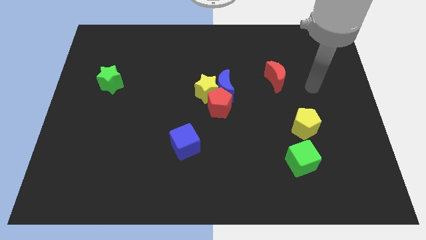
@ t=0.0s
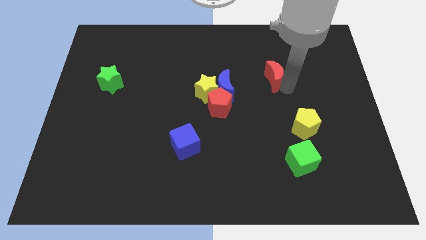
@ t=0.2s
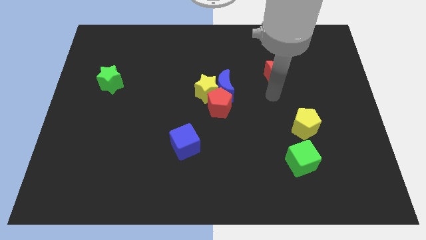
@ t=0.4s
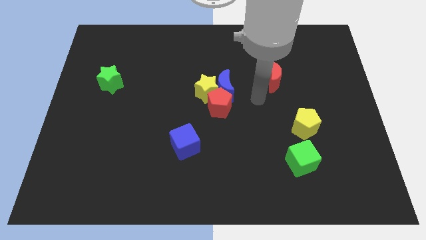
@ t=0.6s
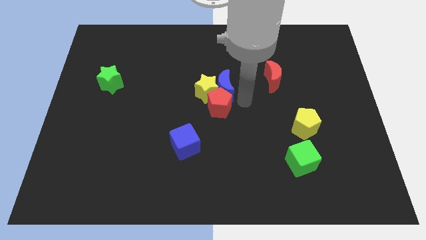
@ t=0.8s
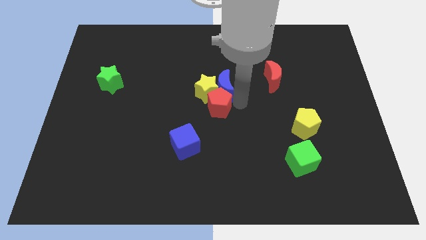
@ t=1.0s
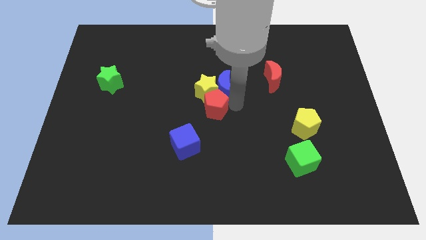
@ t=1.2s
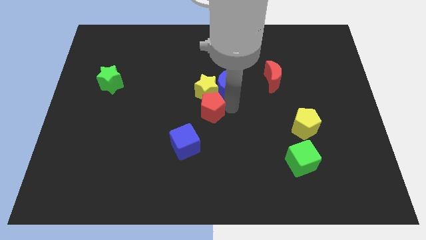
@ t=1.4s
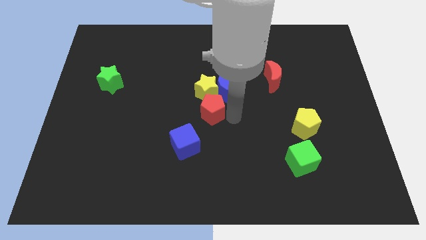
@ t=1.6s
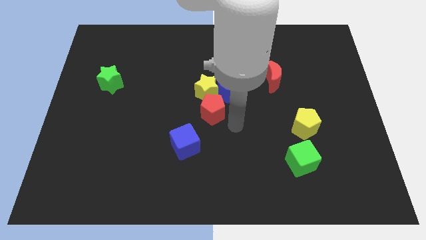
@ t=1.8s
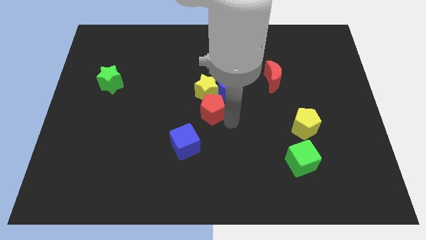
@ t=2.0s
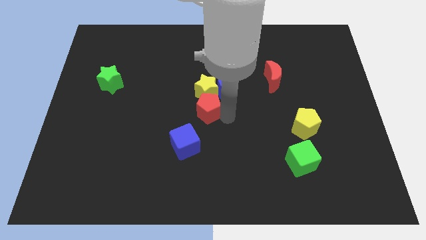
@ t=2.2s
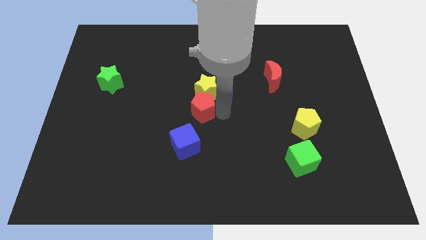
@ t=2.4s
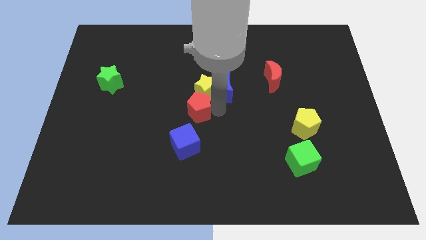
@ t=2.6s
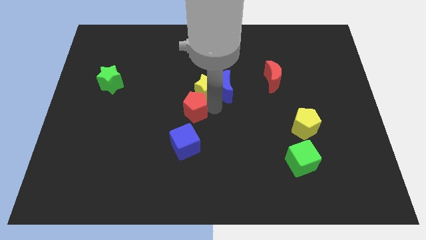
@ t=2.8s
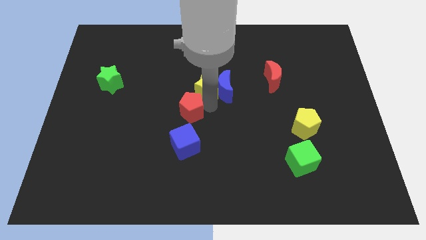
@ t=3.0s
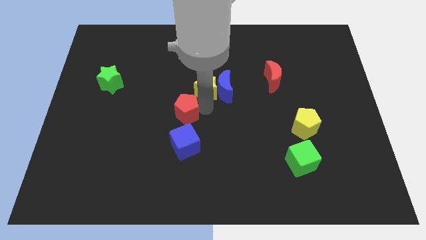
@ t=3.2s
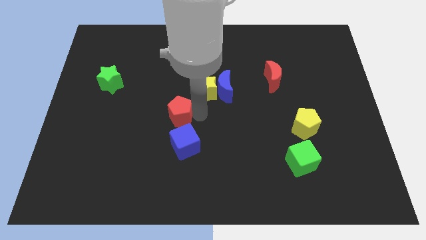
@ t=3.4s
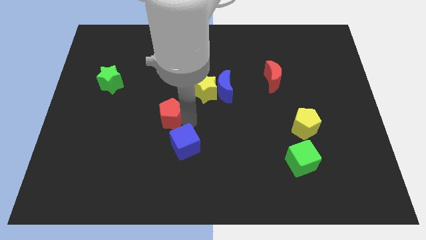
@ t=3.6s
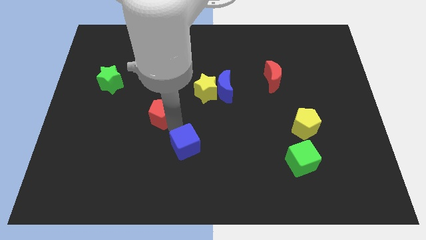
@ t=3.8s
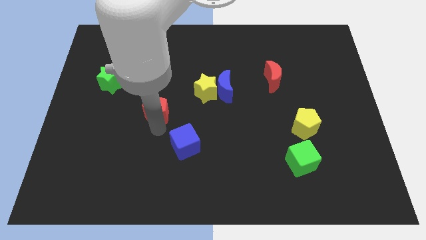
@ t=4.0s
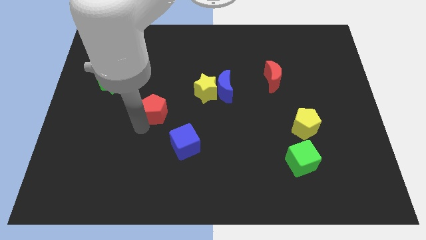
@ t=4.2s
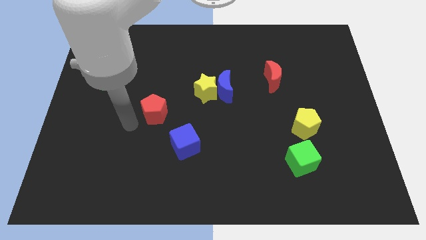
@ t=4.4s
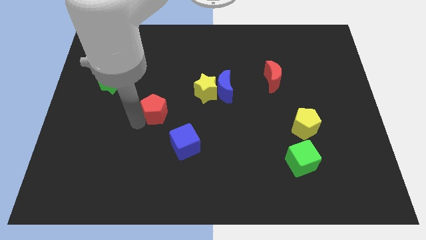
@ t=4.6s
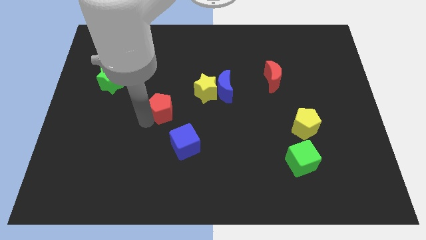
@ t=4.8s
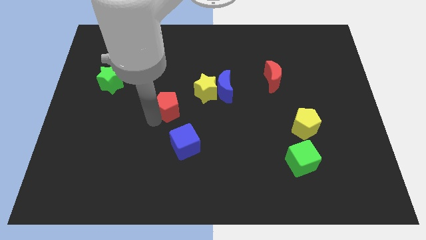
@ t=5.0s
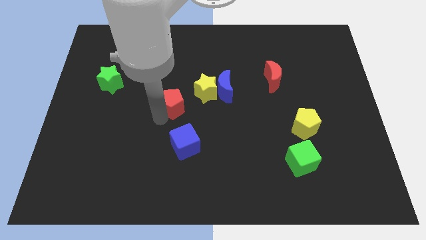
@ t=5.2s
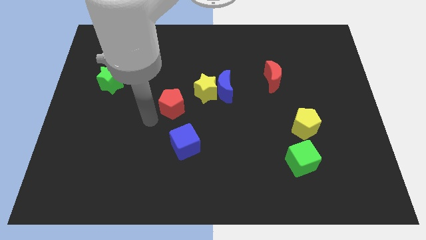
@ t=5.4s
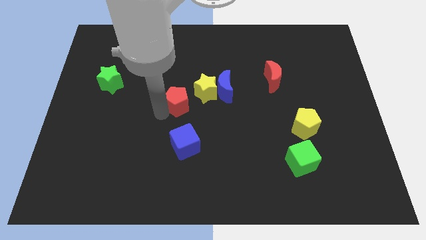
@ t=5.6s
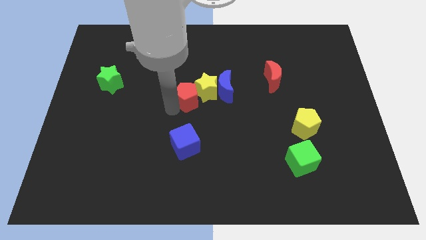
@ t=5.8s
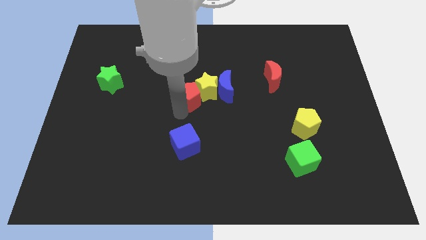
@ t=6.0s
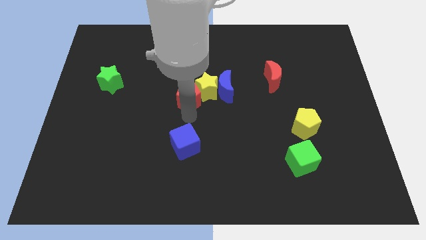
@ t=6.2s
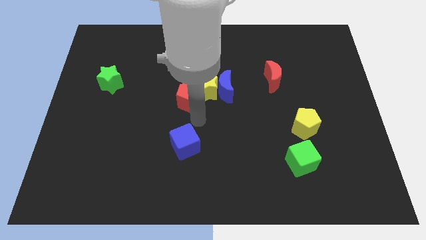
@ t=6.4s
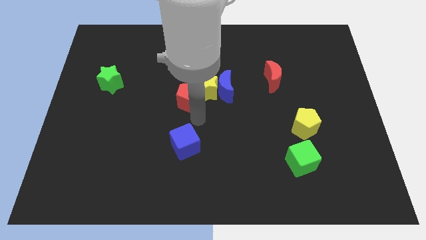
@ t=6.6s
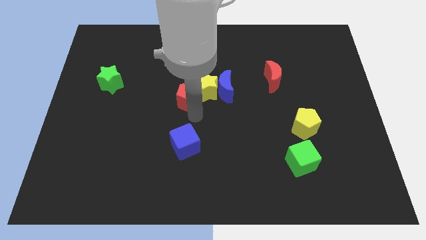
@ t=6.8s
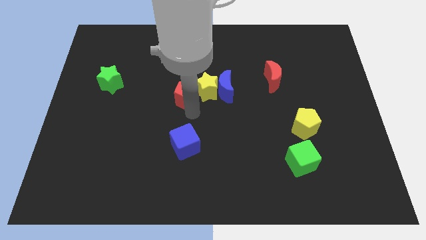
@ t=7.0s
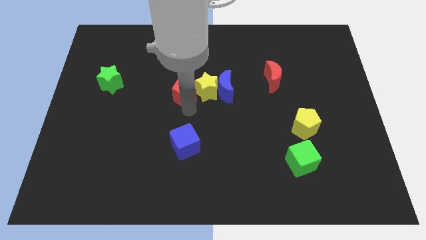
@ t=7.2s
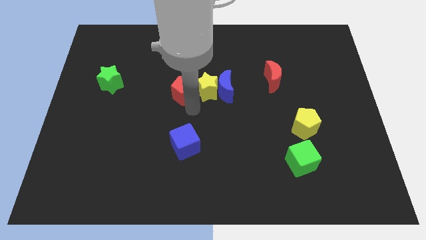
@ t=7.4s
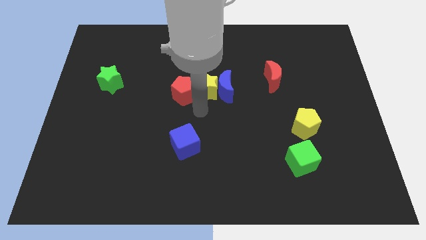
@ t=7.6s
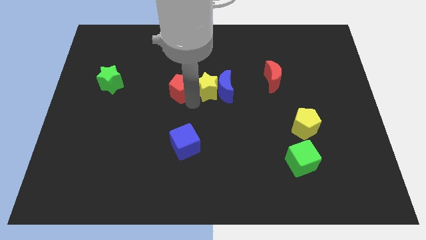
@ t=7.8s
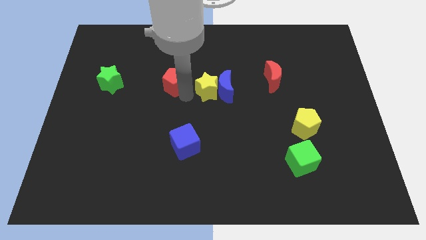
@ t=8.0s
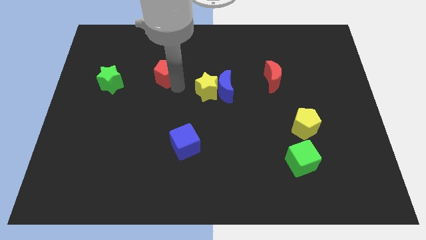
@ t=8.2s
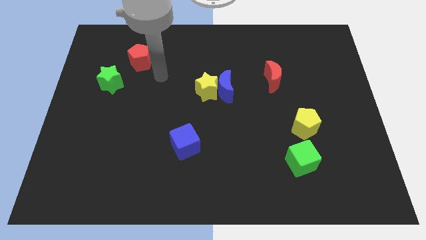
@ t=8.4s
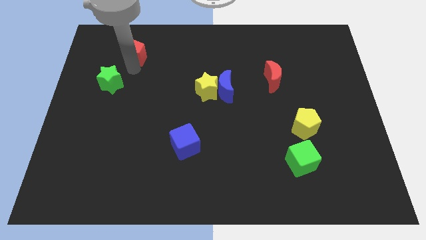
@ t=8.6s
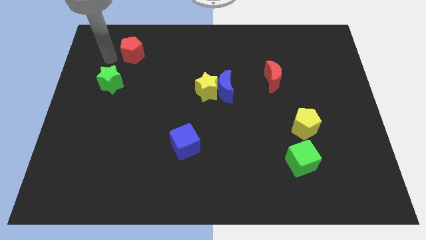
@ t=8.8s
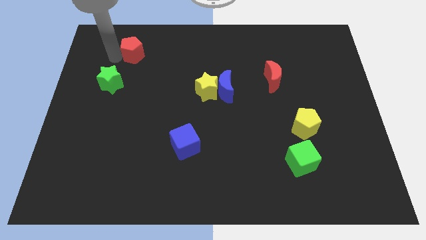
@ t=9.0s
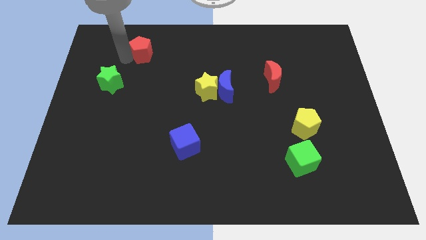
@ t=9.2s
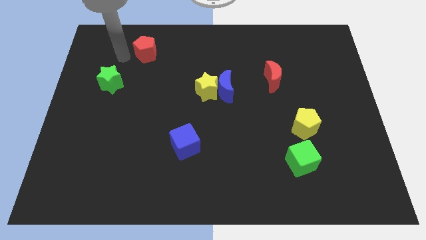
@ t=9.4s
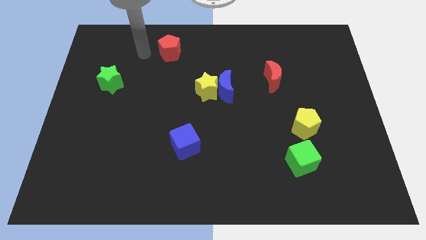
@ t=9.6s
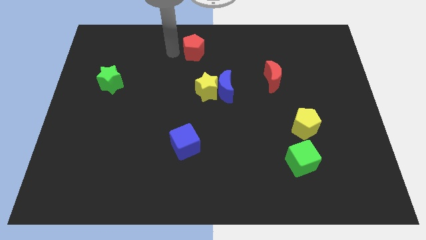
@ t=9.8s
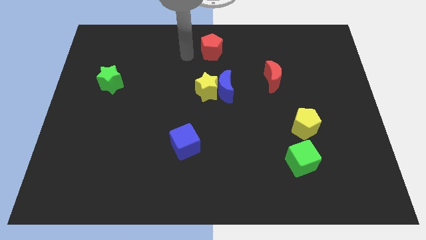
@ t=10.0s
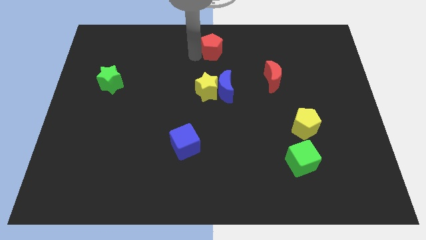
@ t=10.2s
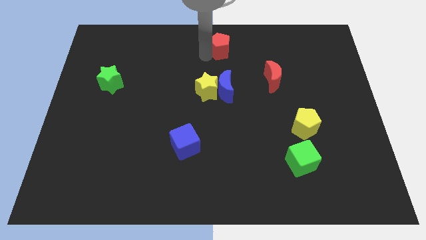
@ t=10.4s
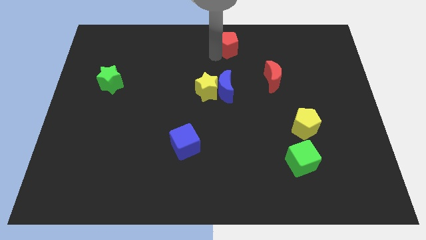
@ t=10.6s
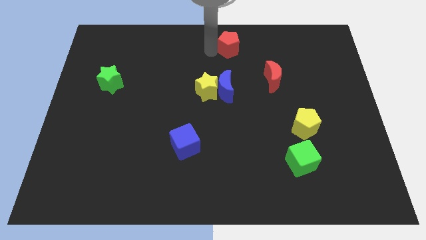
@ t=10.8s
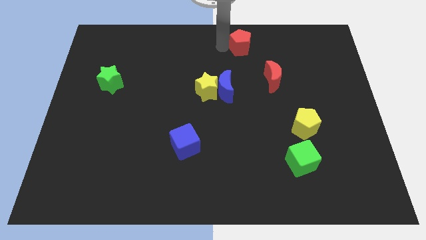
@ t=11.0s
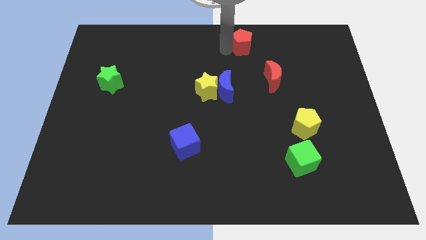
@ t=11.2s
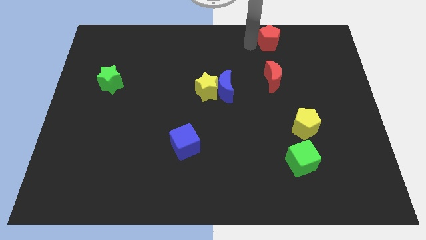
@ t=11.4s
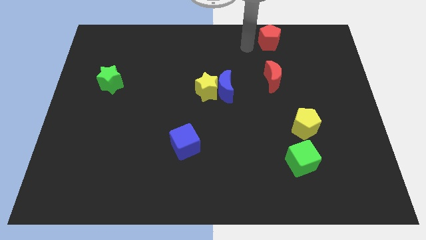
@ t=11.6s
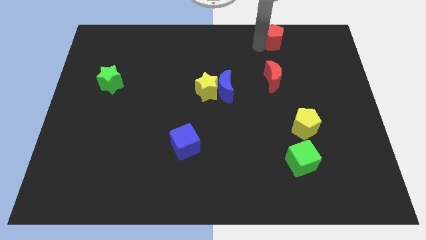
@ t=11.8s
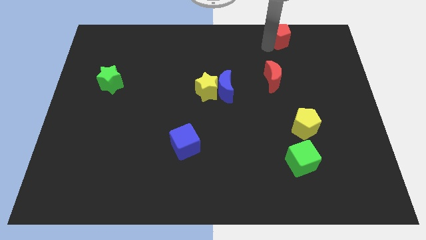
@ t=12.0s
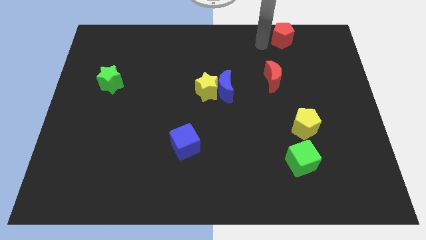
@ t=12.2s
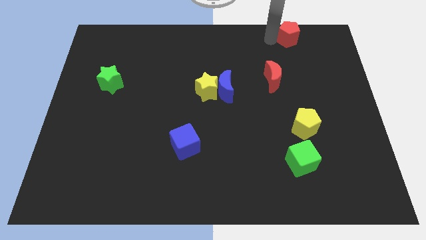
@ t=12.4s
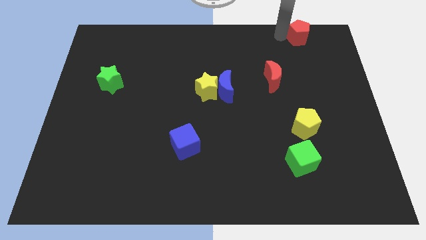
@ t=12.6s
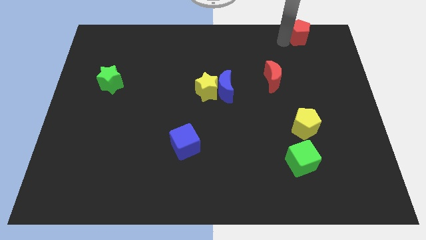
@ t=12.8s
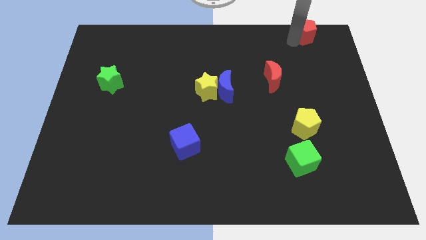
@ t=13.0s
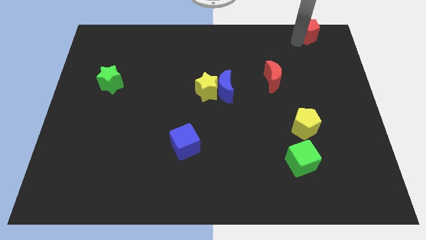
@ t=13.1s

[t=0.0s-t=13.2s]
push the red pentagon to the upper right corner
